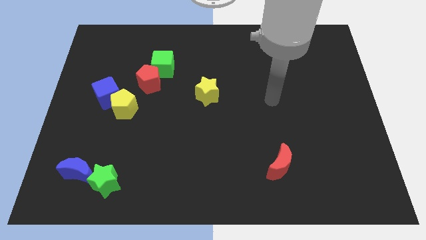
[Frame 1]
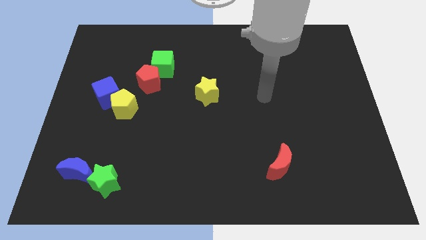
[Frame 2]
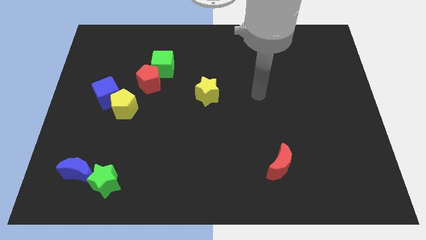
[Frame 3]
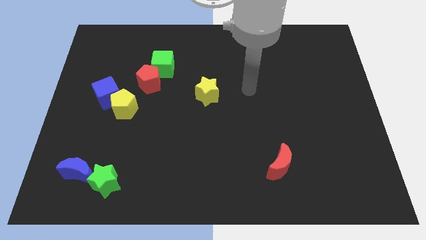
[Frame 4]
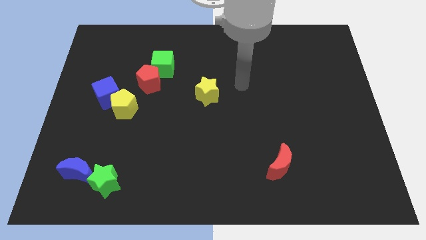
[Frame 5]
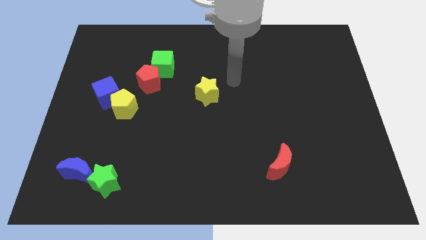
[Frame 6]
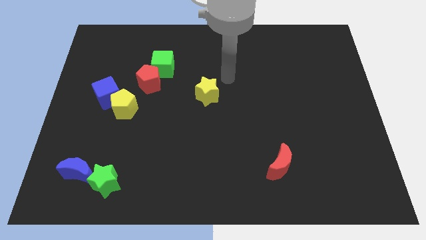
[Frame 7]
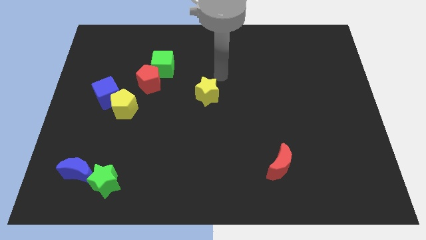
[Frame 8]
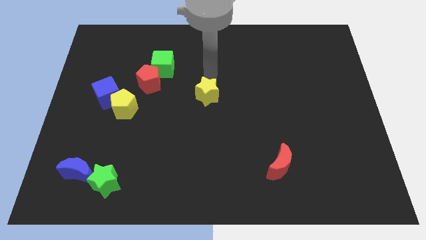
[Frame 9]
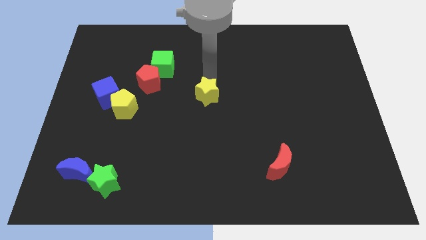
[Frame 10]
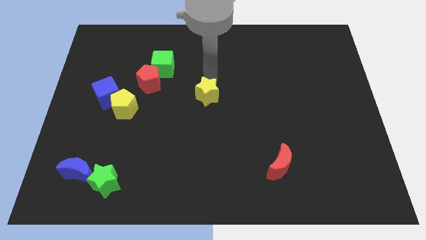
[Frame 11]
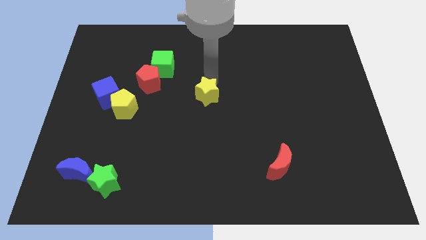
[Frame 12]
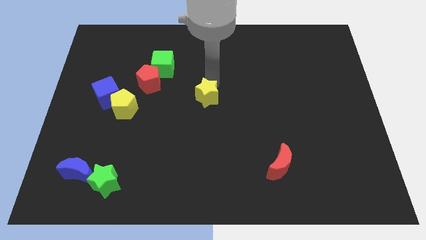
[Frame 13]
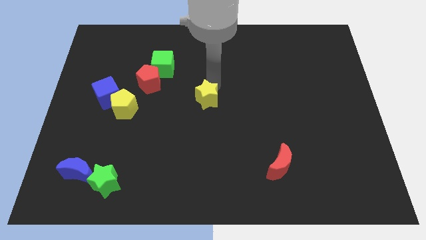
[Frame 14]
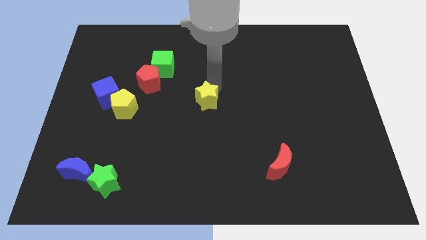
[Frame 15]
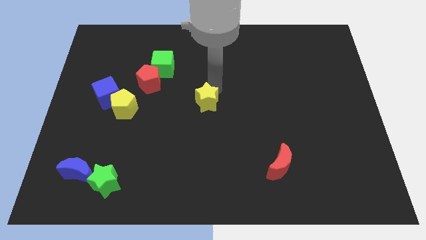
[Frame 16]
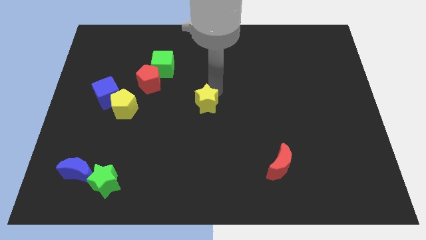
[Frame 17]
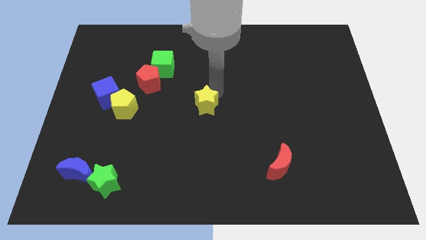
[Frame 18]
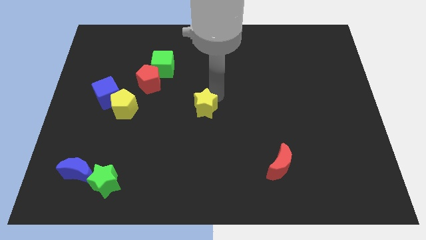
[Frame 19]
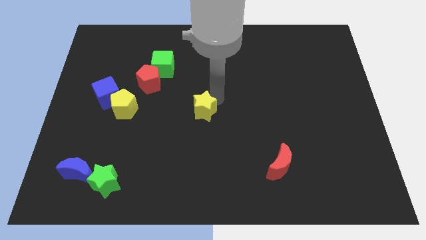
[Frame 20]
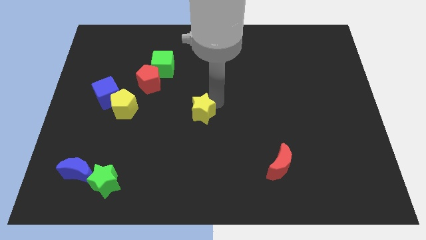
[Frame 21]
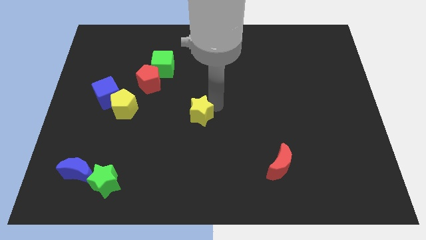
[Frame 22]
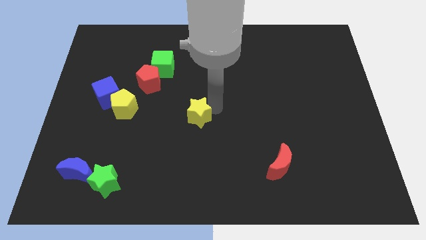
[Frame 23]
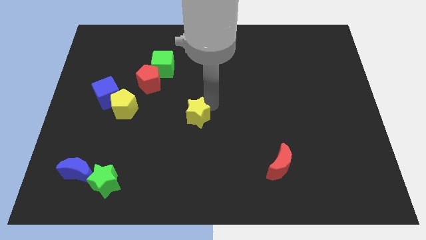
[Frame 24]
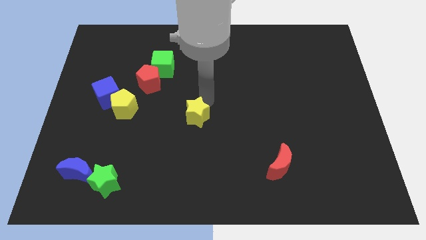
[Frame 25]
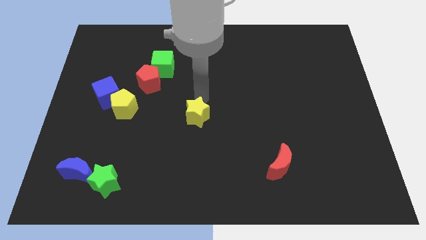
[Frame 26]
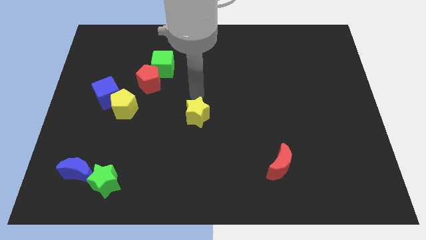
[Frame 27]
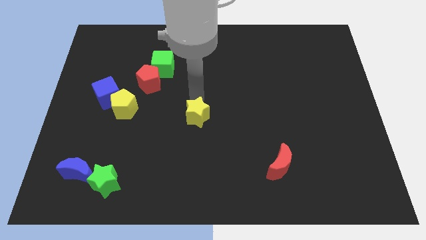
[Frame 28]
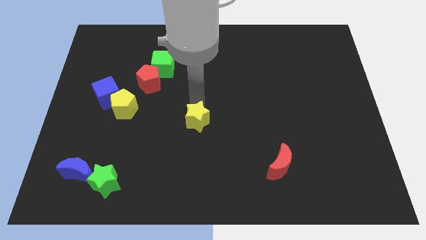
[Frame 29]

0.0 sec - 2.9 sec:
push the yellow star down a little

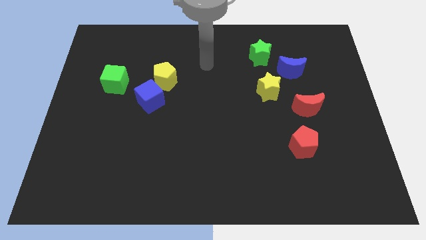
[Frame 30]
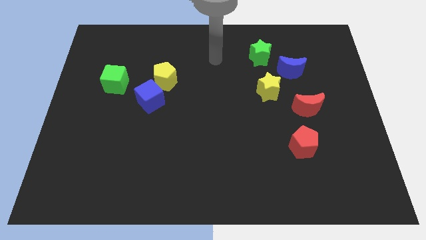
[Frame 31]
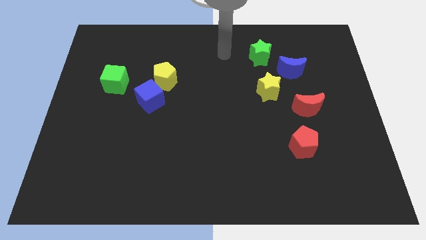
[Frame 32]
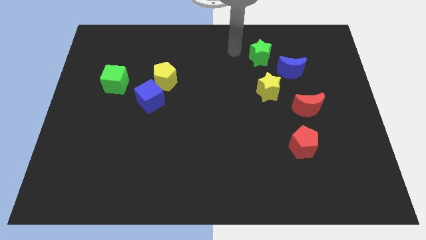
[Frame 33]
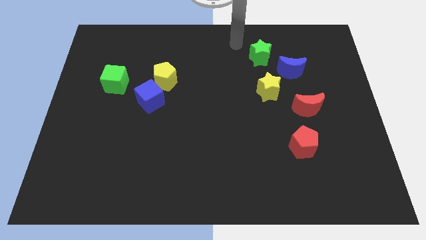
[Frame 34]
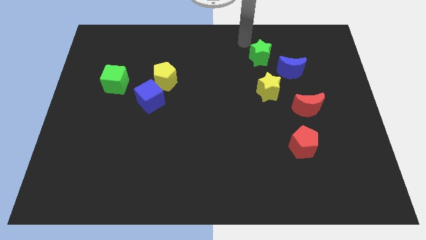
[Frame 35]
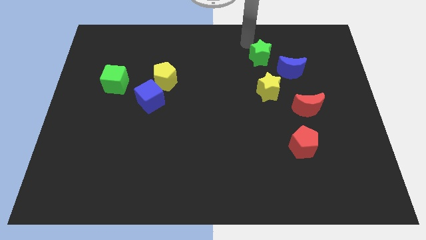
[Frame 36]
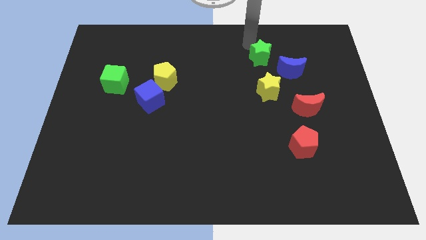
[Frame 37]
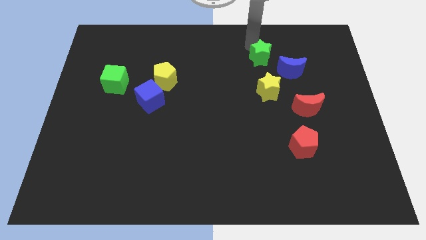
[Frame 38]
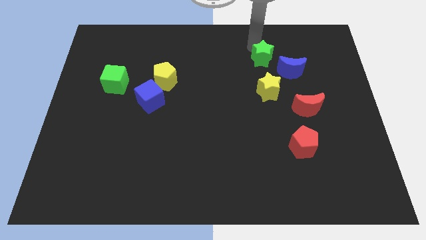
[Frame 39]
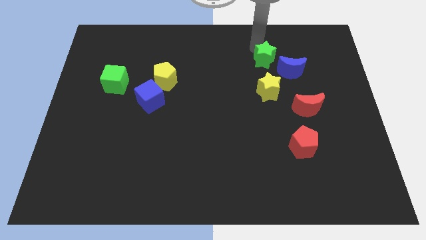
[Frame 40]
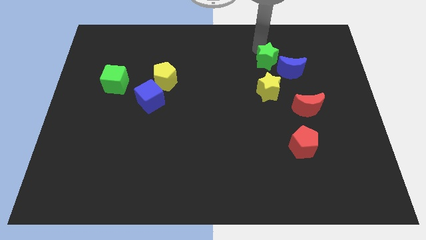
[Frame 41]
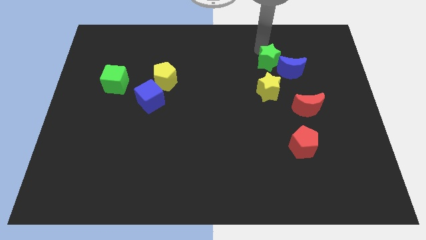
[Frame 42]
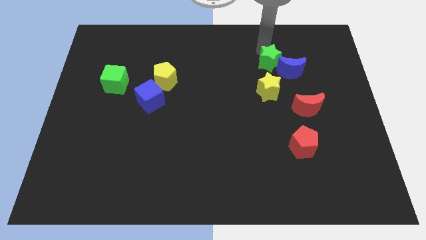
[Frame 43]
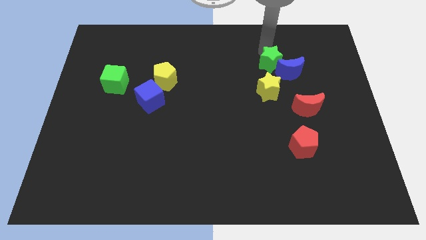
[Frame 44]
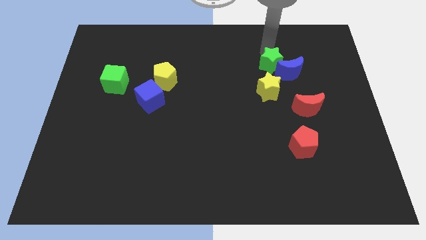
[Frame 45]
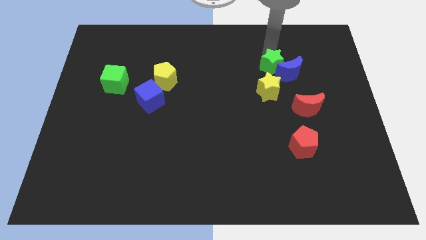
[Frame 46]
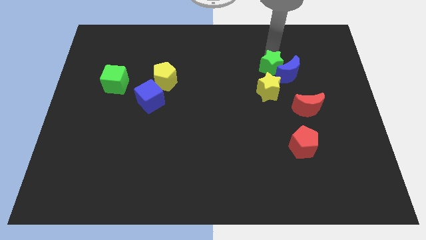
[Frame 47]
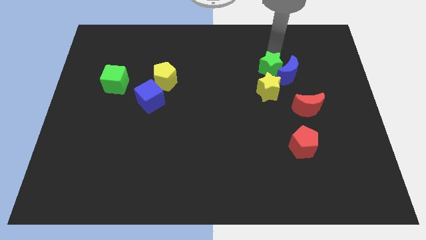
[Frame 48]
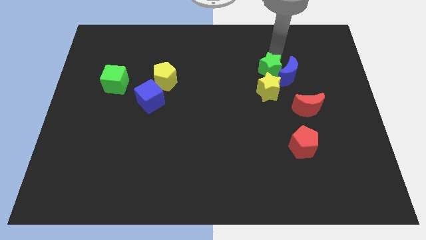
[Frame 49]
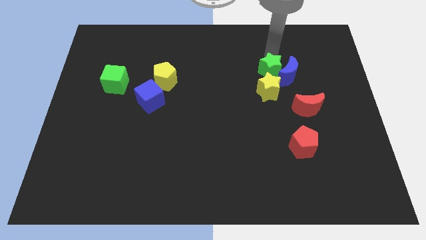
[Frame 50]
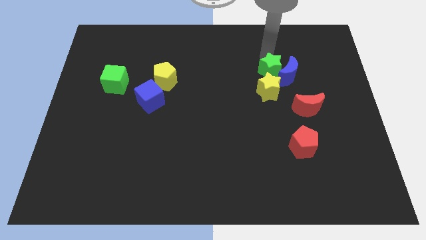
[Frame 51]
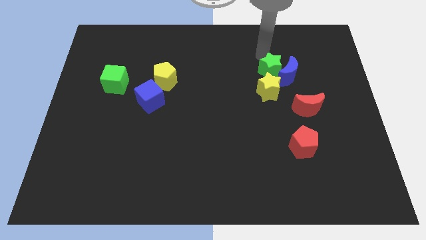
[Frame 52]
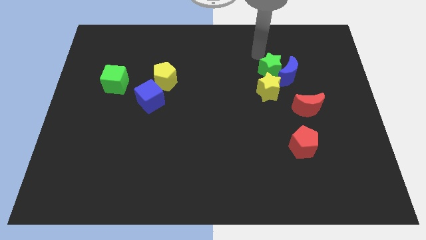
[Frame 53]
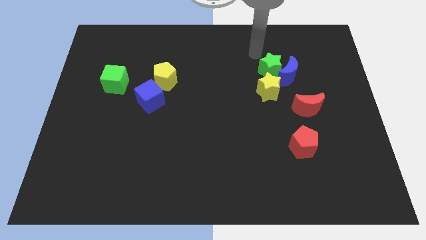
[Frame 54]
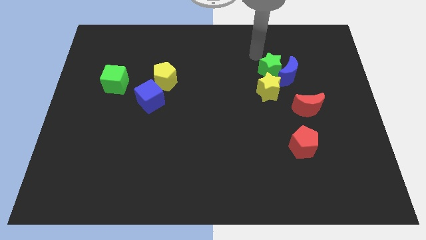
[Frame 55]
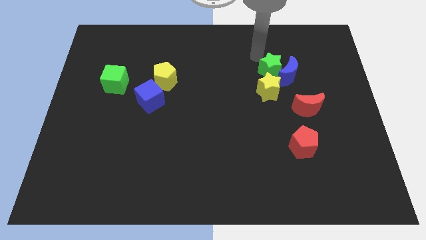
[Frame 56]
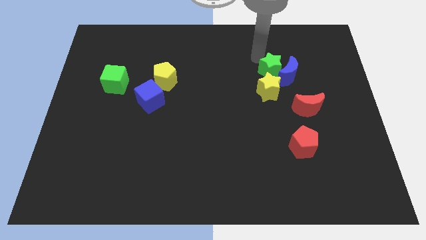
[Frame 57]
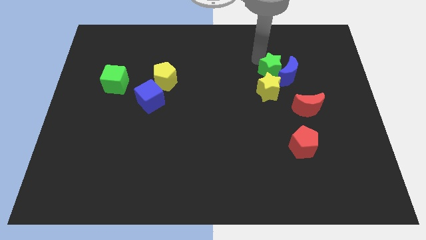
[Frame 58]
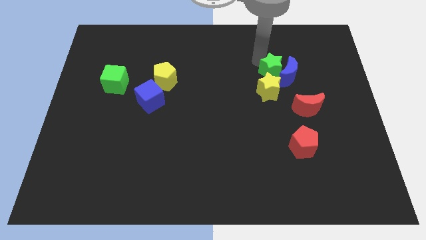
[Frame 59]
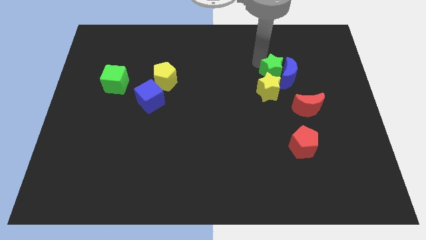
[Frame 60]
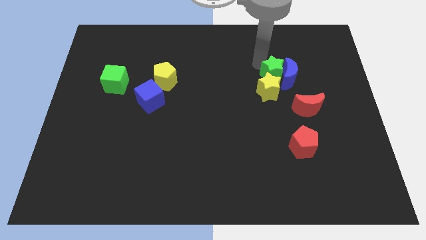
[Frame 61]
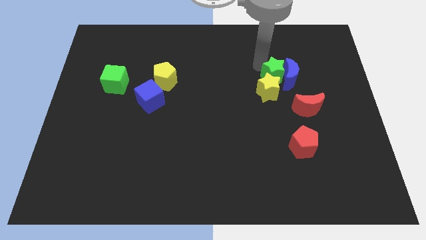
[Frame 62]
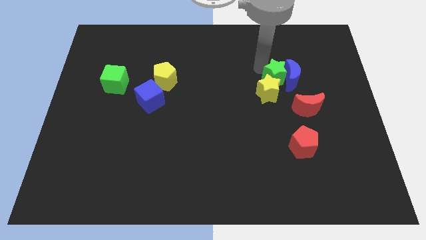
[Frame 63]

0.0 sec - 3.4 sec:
slide the green star diagonally down and to the right a little

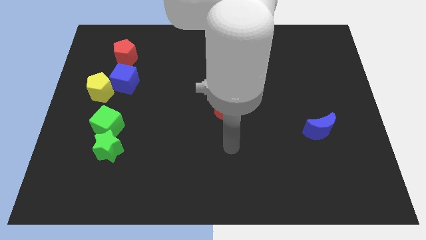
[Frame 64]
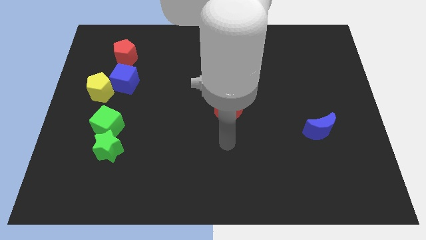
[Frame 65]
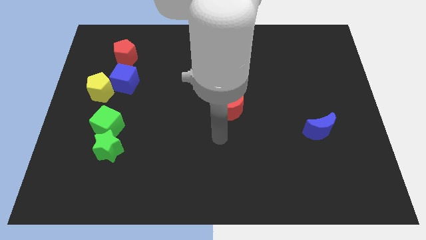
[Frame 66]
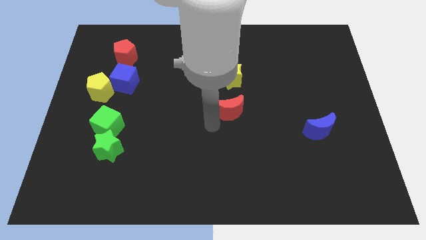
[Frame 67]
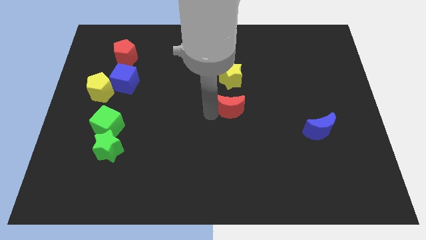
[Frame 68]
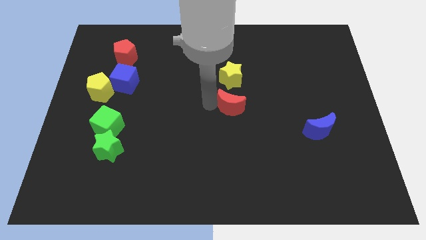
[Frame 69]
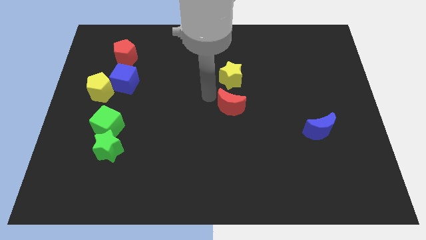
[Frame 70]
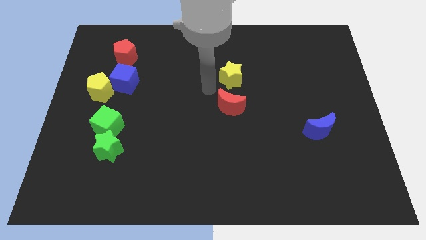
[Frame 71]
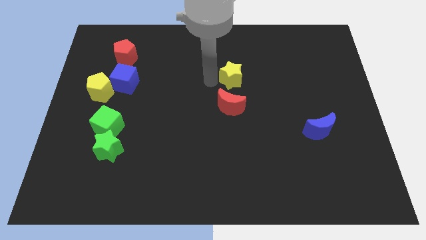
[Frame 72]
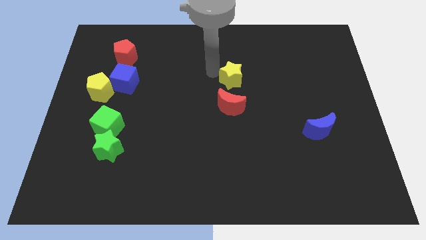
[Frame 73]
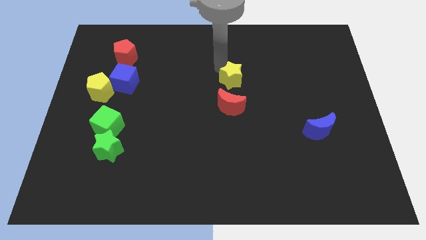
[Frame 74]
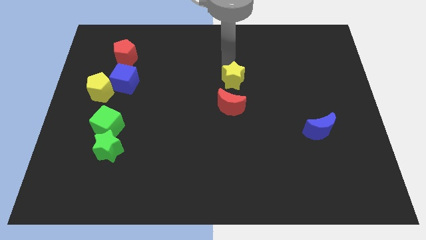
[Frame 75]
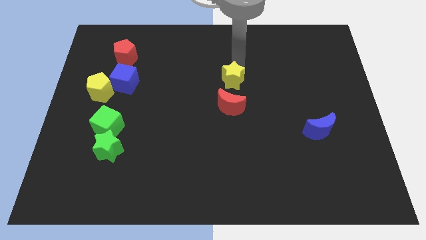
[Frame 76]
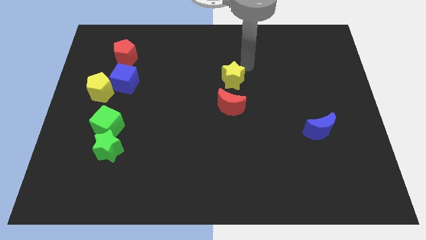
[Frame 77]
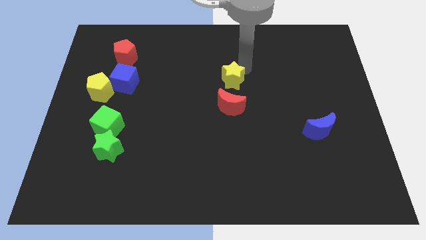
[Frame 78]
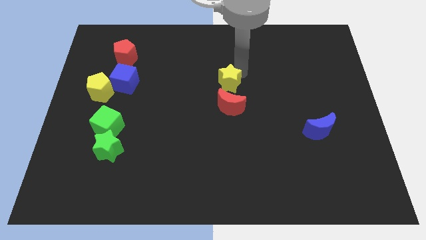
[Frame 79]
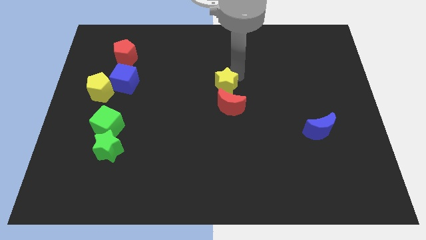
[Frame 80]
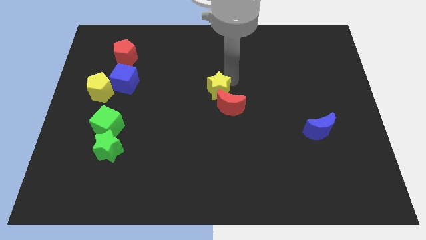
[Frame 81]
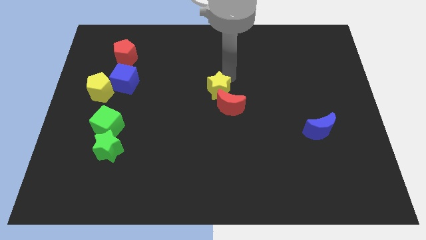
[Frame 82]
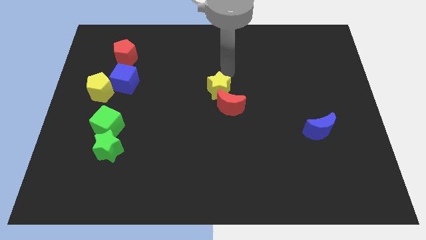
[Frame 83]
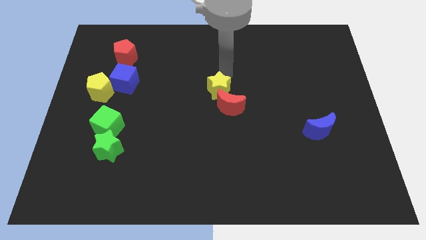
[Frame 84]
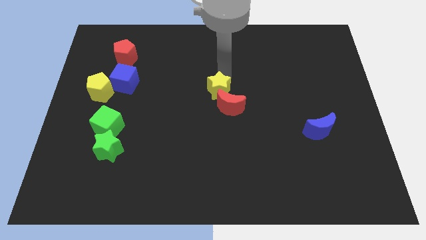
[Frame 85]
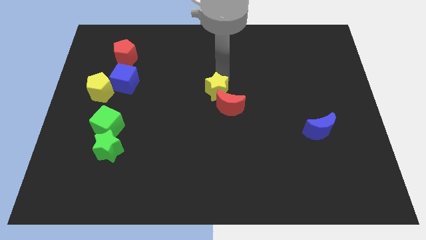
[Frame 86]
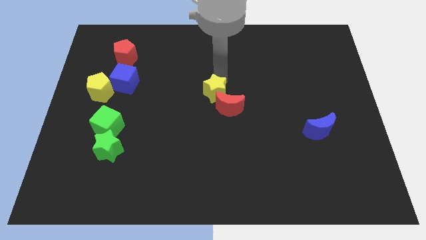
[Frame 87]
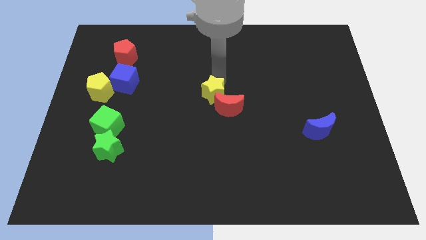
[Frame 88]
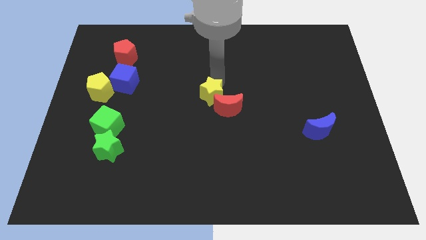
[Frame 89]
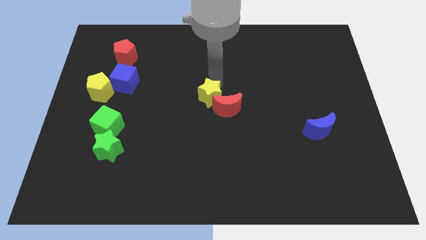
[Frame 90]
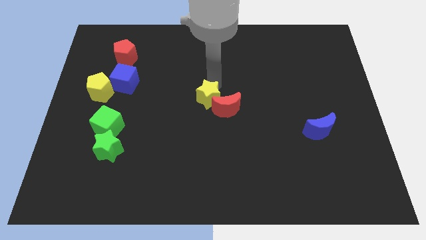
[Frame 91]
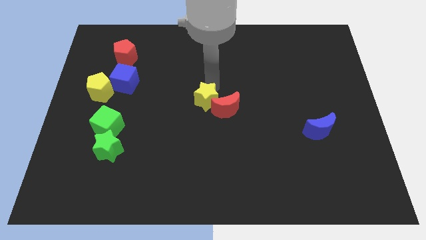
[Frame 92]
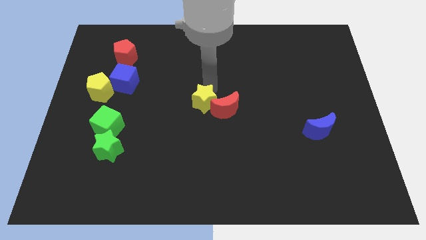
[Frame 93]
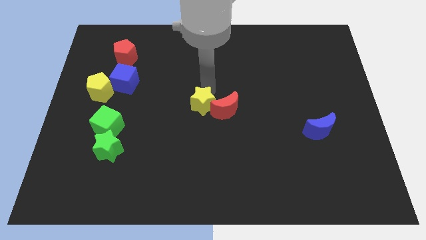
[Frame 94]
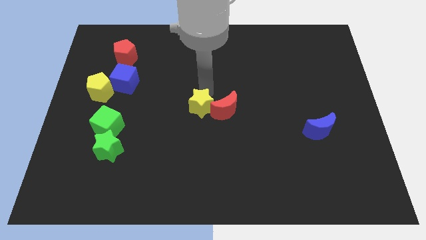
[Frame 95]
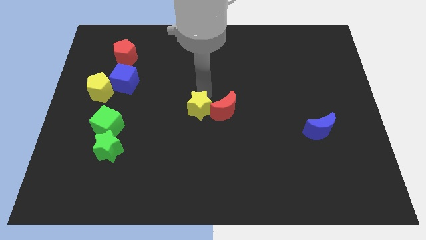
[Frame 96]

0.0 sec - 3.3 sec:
push the yellow star downwards slightly
